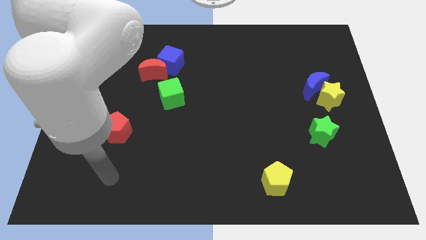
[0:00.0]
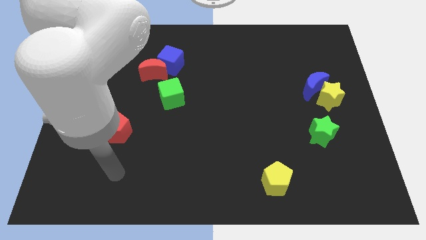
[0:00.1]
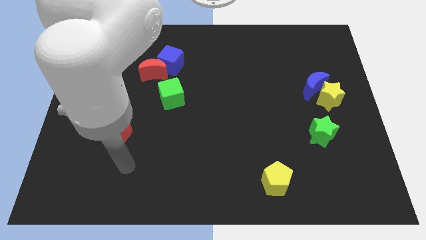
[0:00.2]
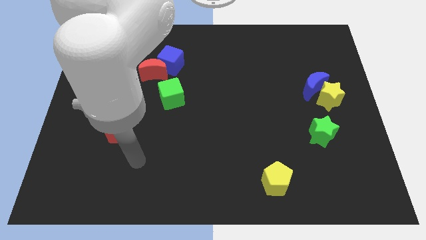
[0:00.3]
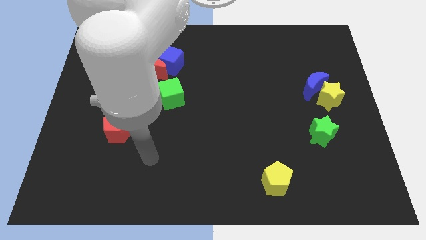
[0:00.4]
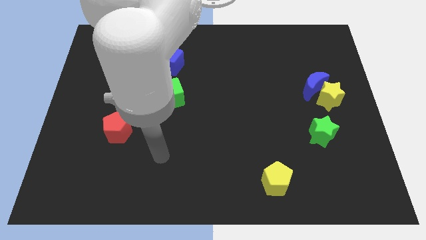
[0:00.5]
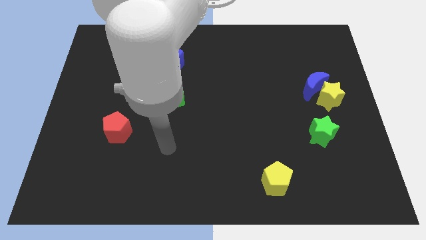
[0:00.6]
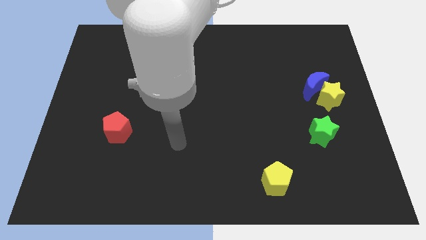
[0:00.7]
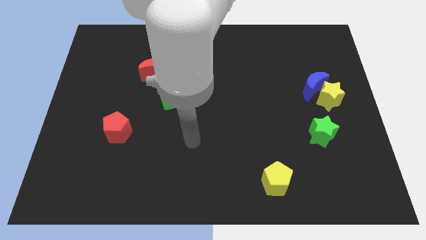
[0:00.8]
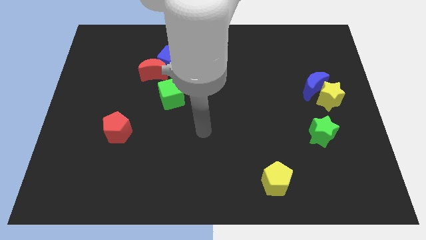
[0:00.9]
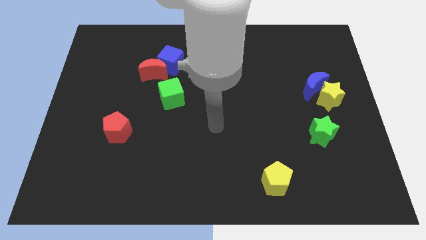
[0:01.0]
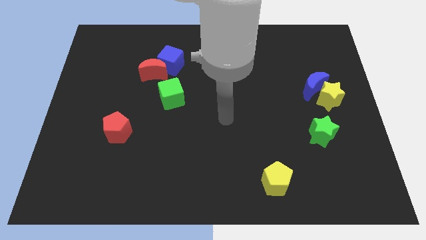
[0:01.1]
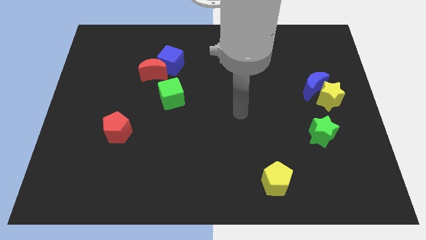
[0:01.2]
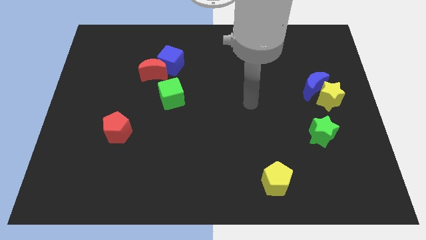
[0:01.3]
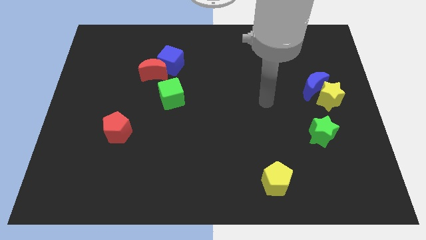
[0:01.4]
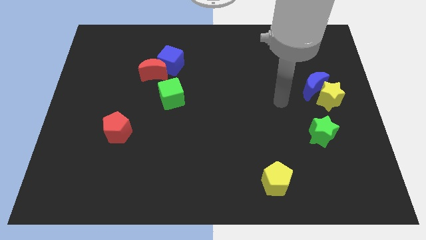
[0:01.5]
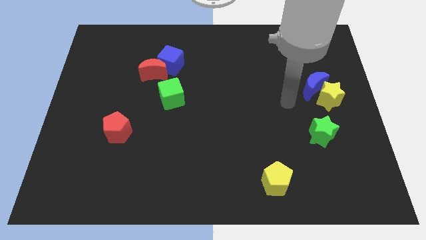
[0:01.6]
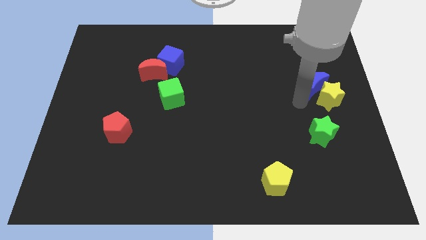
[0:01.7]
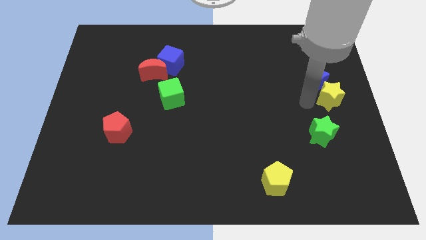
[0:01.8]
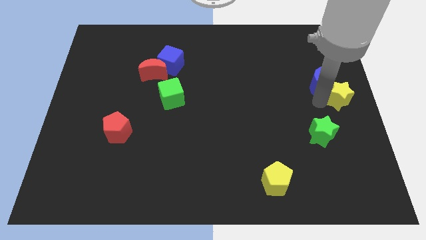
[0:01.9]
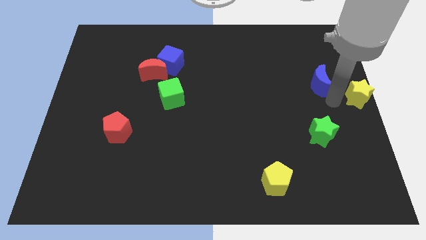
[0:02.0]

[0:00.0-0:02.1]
pull the blue moon apart from the yellow star

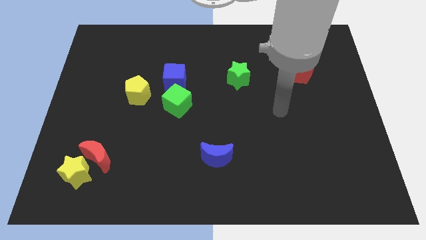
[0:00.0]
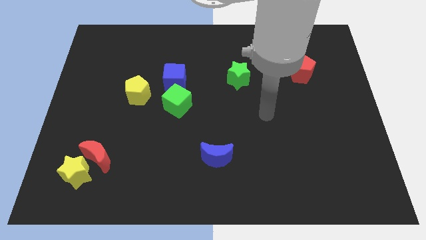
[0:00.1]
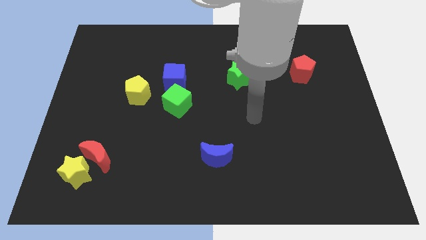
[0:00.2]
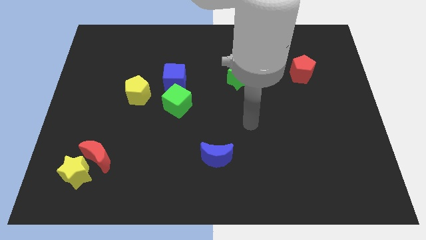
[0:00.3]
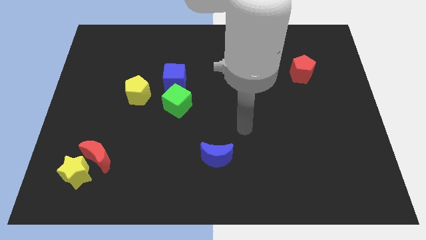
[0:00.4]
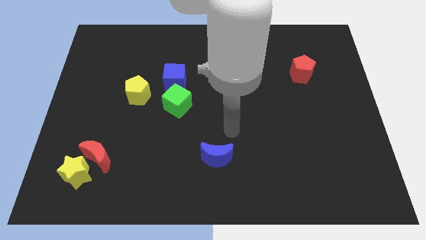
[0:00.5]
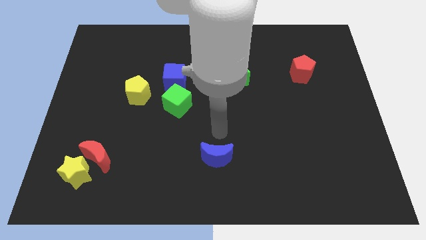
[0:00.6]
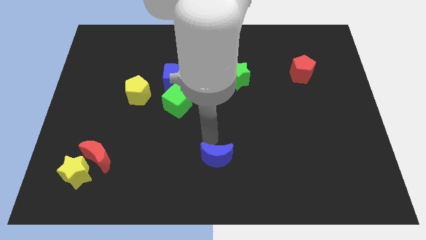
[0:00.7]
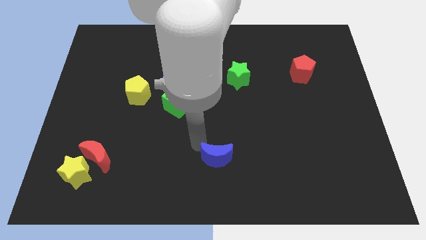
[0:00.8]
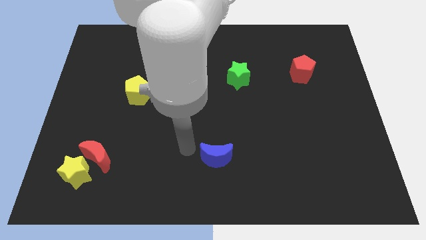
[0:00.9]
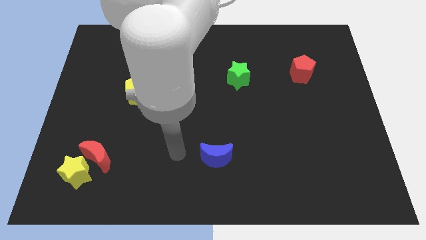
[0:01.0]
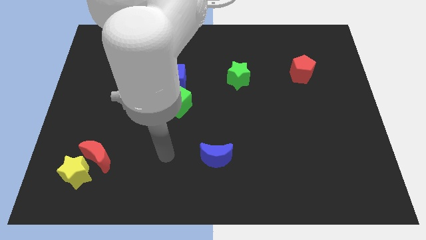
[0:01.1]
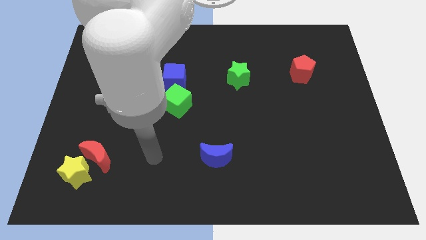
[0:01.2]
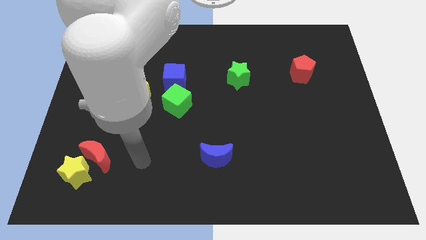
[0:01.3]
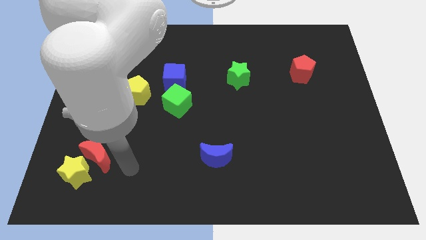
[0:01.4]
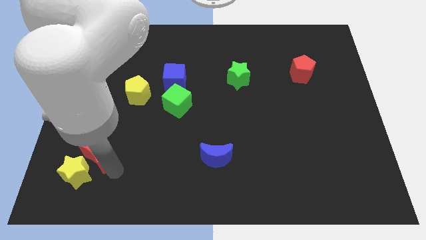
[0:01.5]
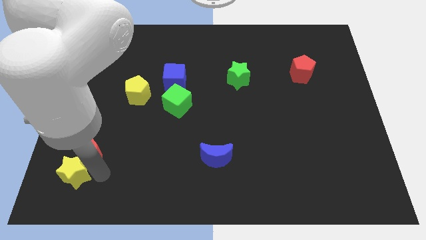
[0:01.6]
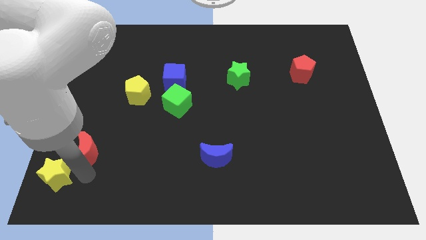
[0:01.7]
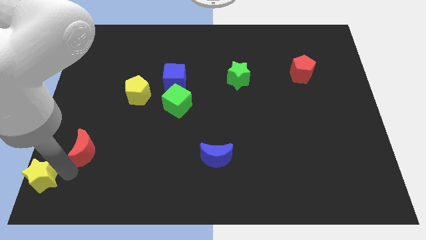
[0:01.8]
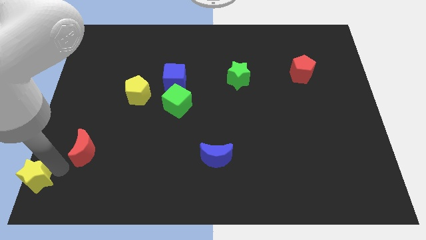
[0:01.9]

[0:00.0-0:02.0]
move the red moon away from the yellow star

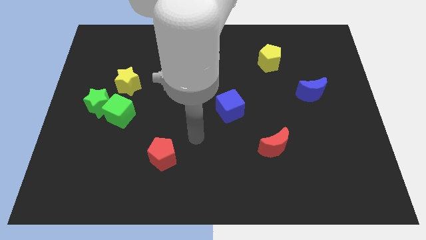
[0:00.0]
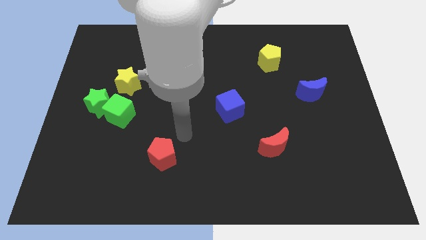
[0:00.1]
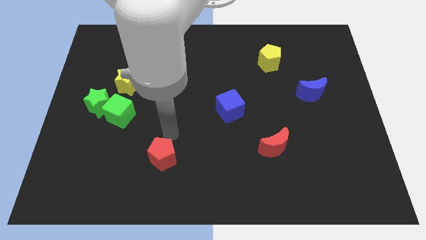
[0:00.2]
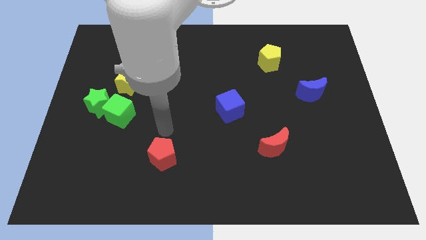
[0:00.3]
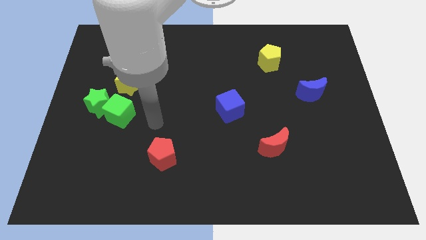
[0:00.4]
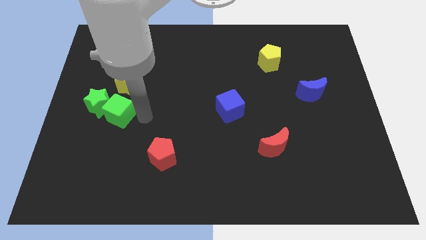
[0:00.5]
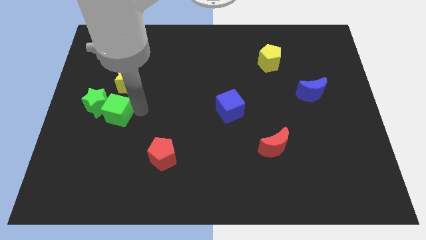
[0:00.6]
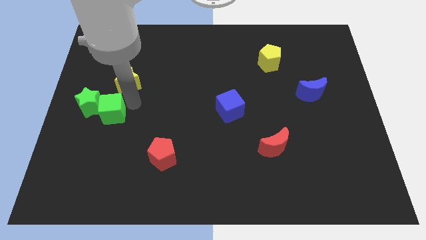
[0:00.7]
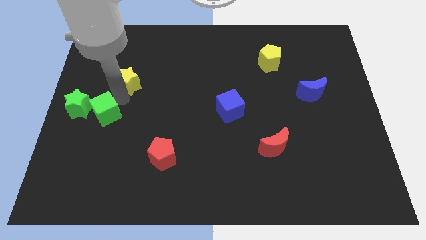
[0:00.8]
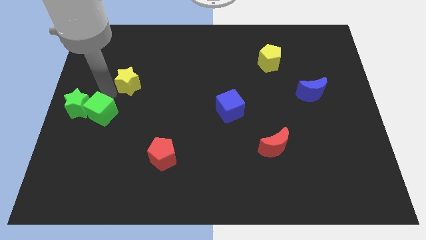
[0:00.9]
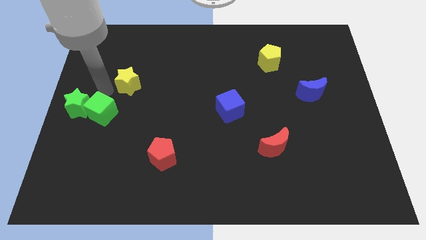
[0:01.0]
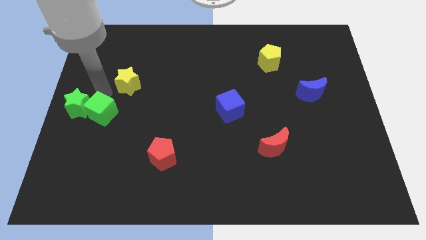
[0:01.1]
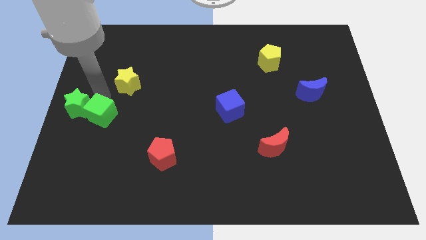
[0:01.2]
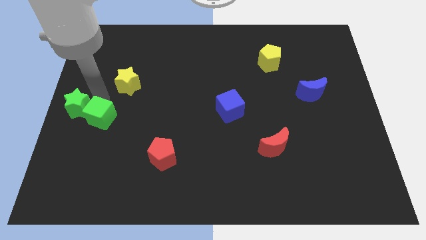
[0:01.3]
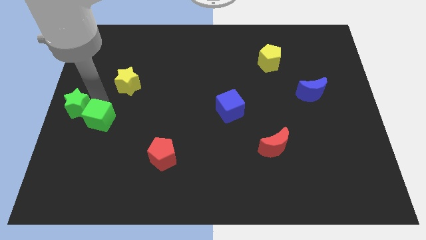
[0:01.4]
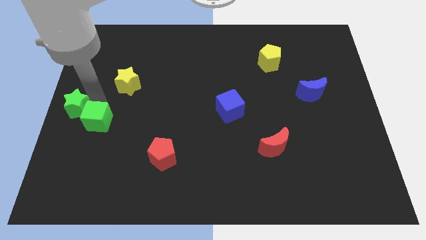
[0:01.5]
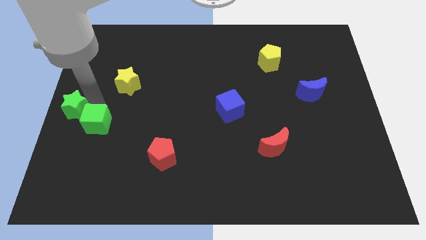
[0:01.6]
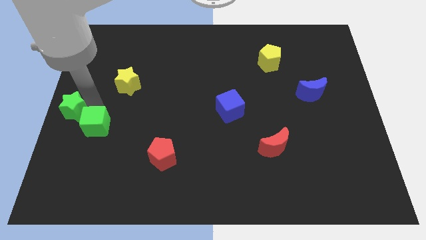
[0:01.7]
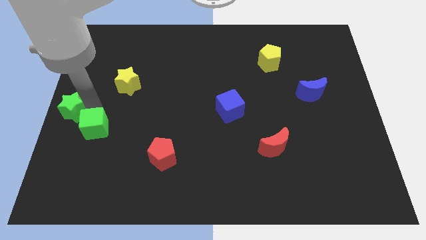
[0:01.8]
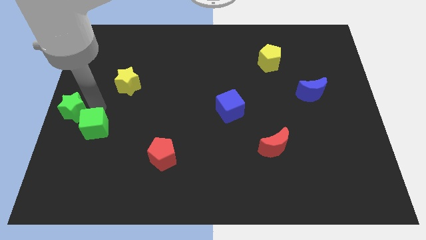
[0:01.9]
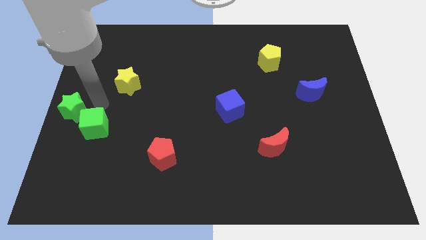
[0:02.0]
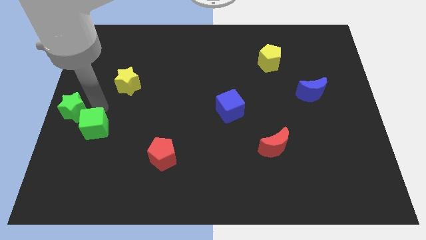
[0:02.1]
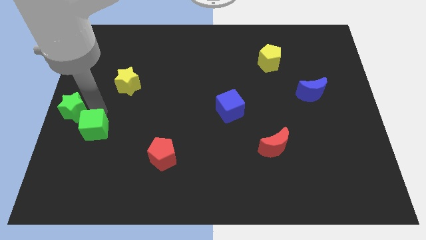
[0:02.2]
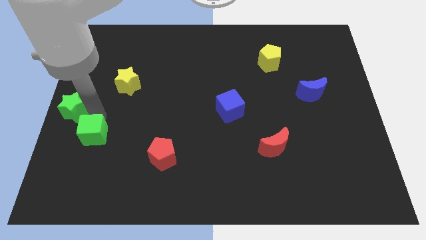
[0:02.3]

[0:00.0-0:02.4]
pull the green cube apart from the green star and yellow star

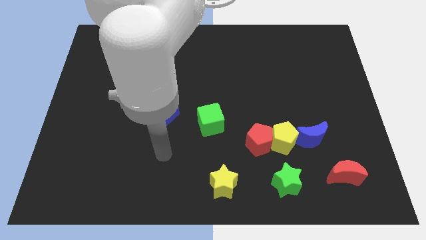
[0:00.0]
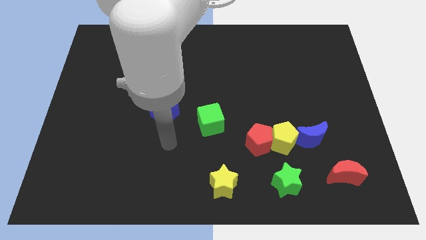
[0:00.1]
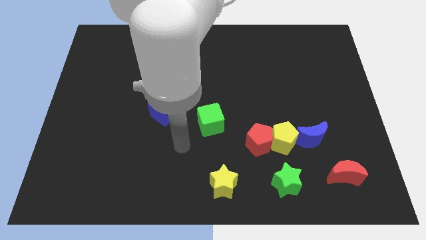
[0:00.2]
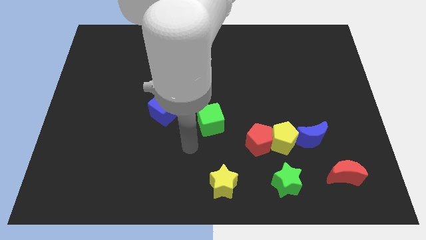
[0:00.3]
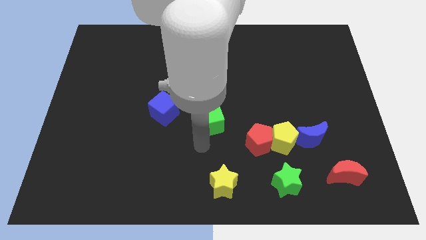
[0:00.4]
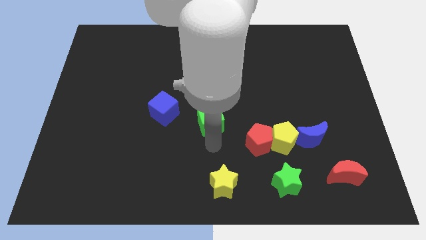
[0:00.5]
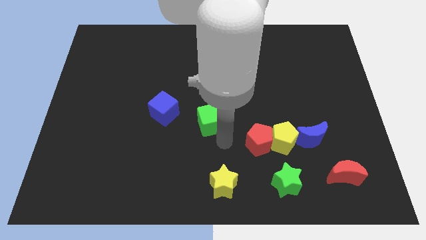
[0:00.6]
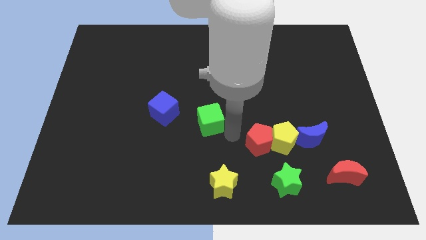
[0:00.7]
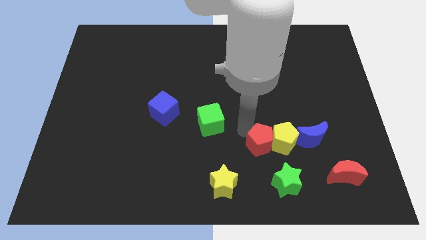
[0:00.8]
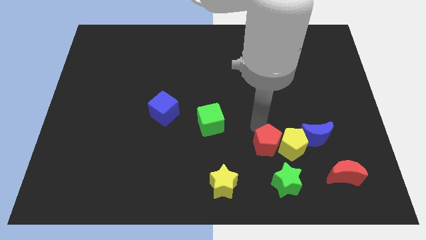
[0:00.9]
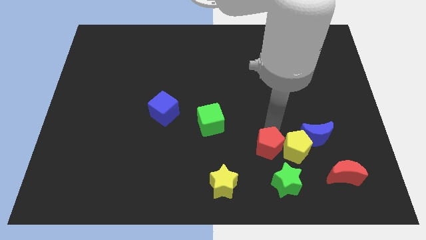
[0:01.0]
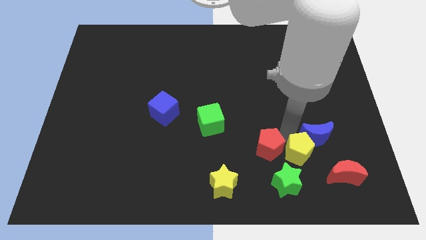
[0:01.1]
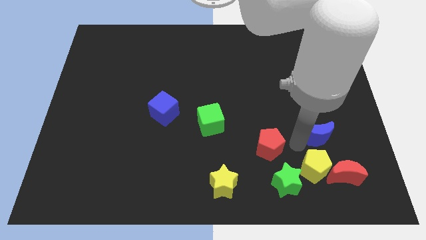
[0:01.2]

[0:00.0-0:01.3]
separate the red pentagon from the yellow pentagon

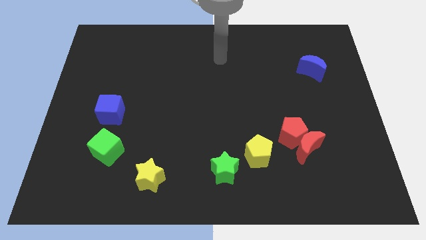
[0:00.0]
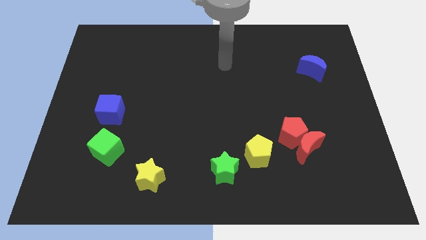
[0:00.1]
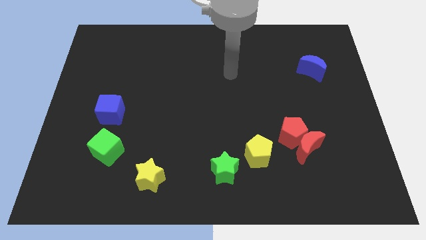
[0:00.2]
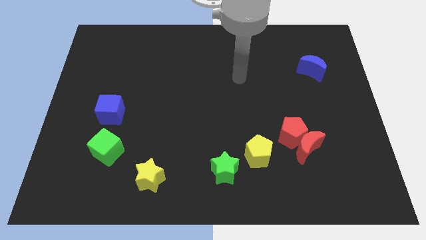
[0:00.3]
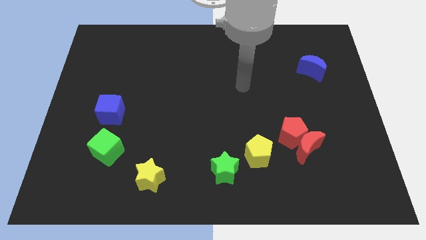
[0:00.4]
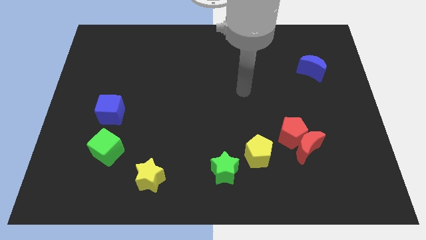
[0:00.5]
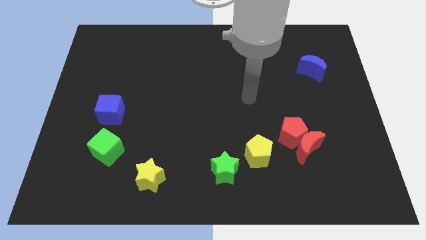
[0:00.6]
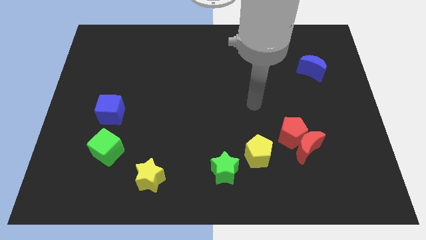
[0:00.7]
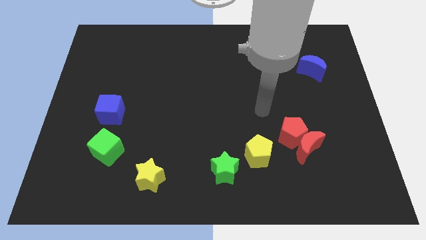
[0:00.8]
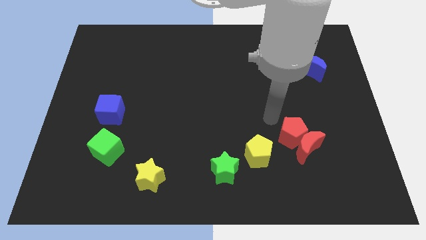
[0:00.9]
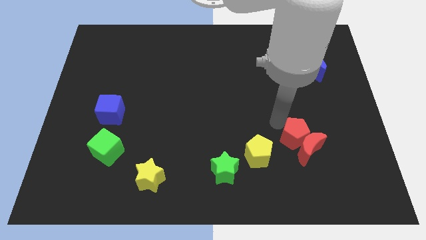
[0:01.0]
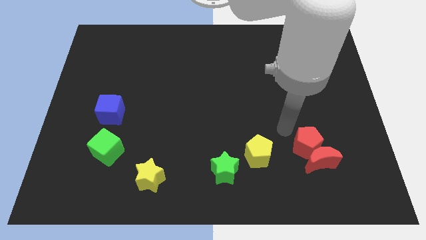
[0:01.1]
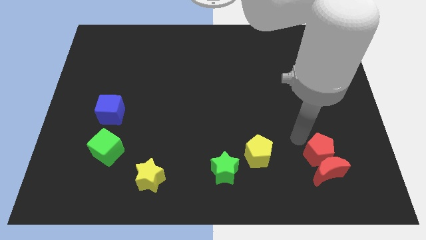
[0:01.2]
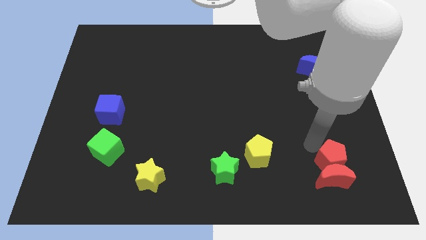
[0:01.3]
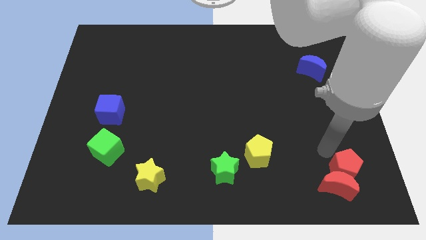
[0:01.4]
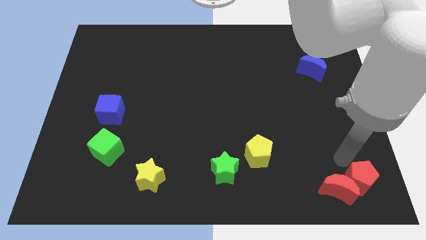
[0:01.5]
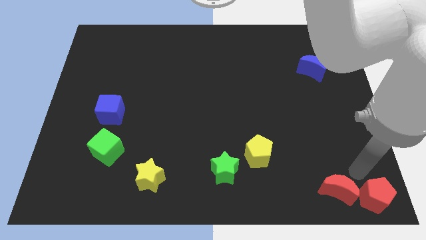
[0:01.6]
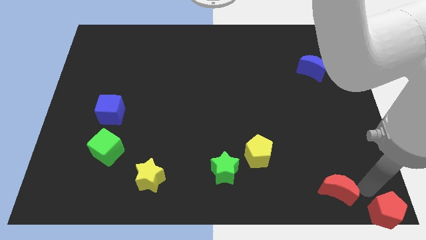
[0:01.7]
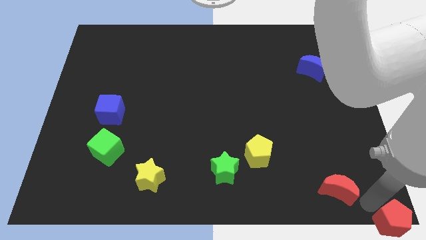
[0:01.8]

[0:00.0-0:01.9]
pull the red moon apart from the red pentagon
